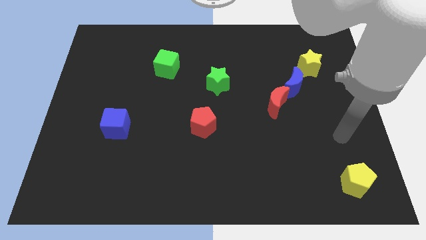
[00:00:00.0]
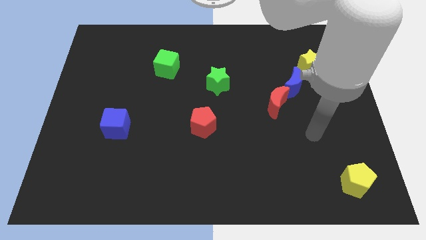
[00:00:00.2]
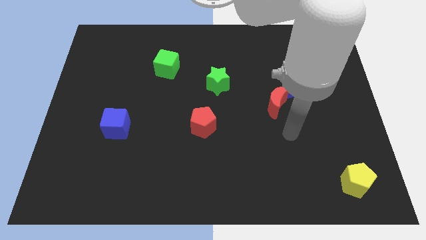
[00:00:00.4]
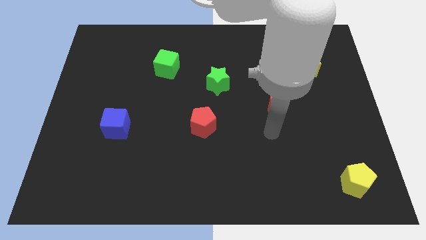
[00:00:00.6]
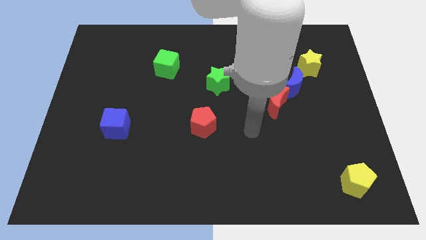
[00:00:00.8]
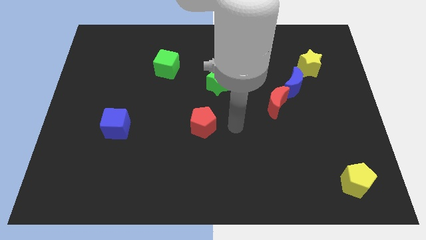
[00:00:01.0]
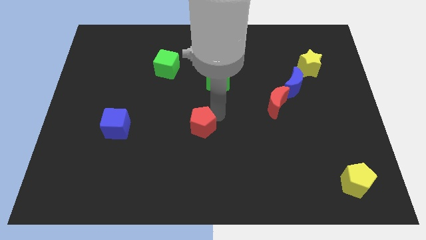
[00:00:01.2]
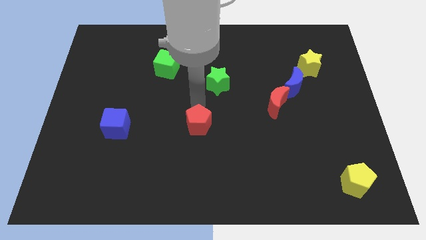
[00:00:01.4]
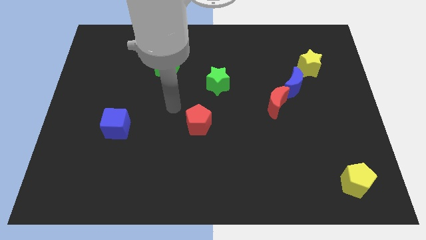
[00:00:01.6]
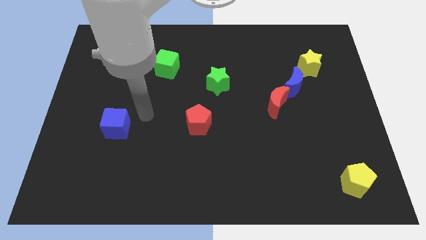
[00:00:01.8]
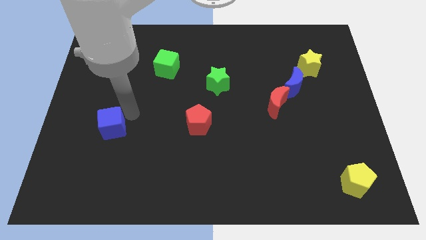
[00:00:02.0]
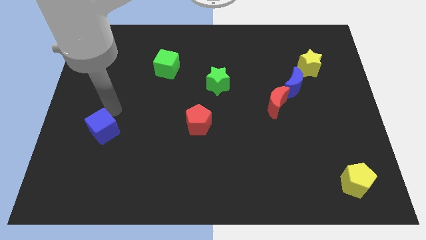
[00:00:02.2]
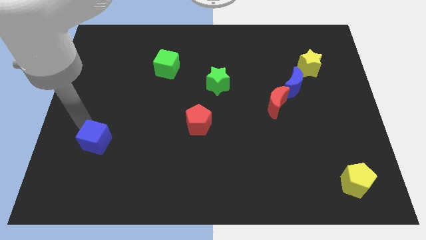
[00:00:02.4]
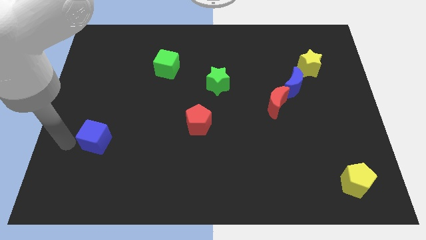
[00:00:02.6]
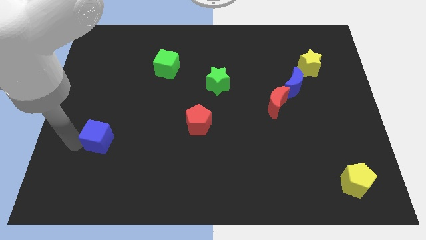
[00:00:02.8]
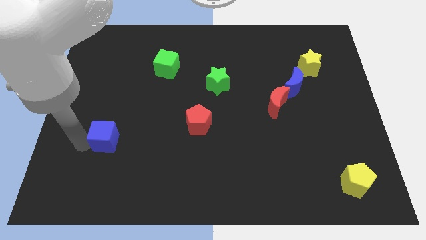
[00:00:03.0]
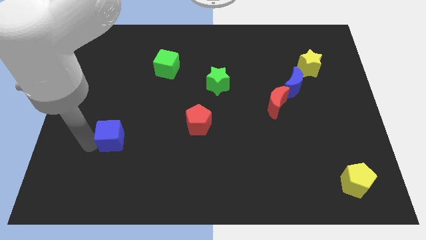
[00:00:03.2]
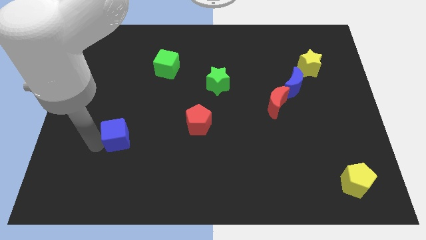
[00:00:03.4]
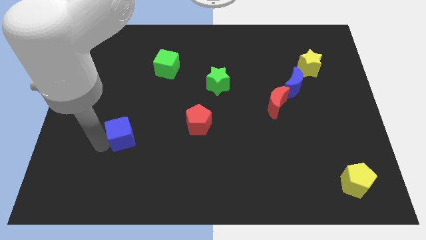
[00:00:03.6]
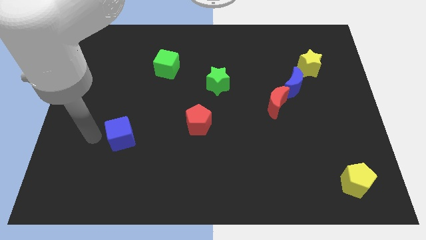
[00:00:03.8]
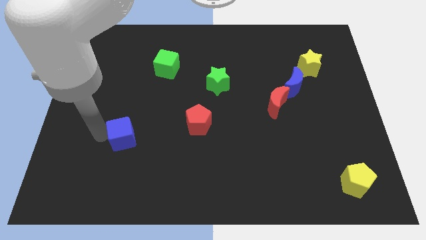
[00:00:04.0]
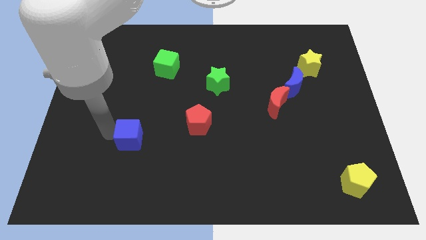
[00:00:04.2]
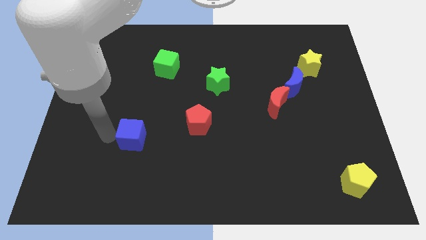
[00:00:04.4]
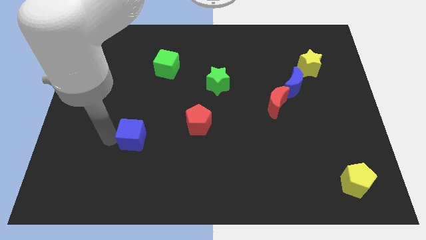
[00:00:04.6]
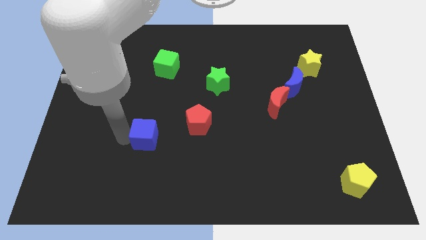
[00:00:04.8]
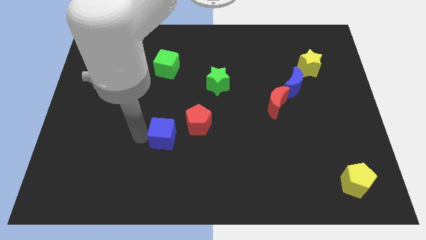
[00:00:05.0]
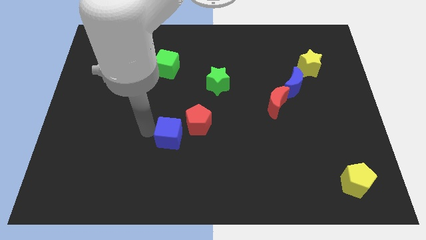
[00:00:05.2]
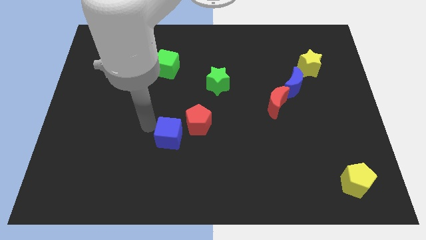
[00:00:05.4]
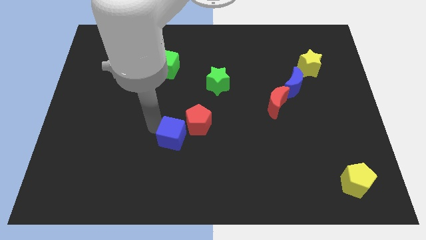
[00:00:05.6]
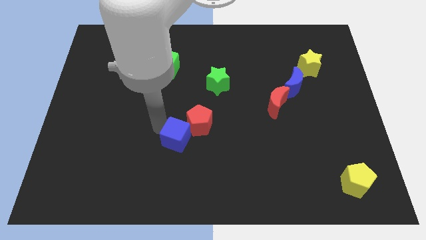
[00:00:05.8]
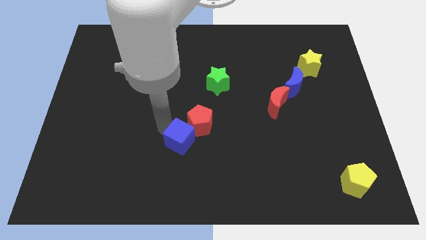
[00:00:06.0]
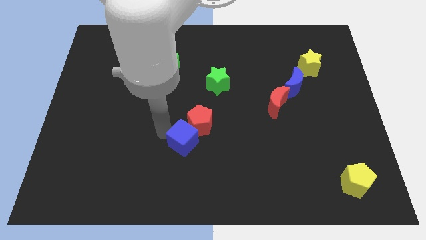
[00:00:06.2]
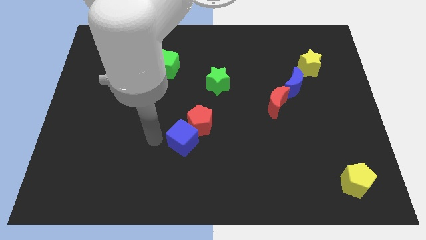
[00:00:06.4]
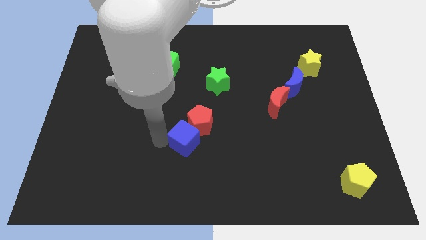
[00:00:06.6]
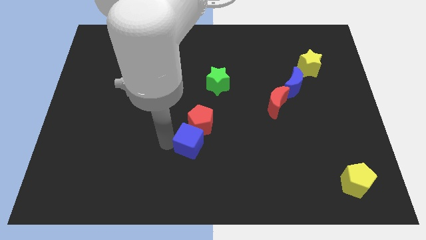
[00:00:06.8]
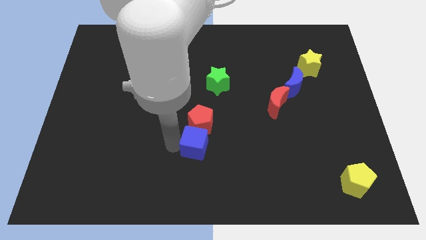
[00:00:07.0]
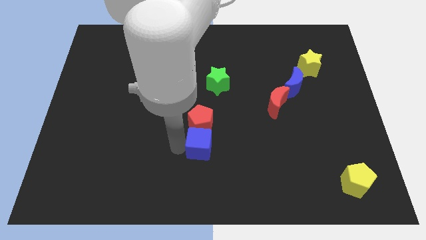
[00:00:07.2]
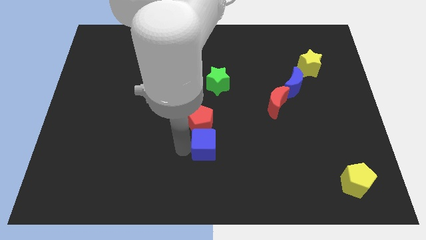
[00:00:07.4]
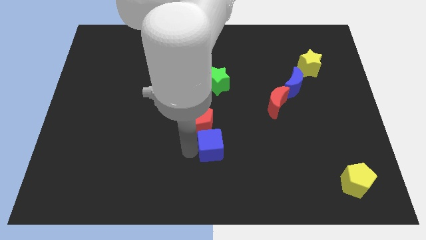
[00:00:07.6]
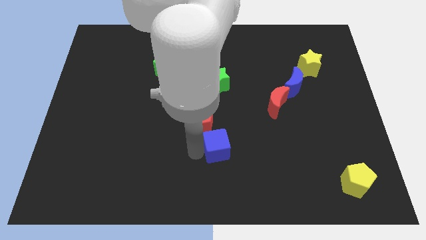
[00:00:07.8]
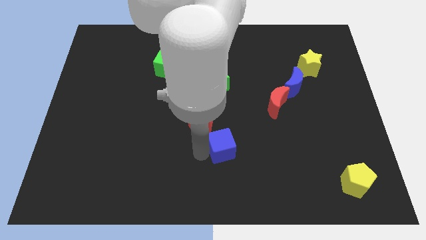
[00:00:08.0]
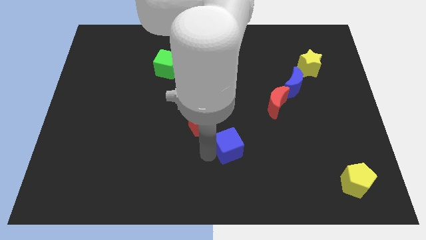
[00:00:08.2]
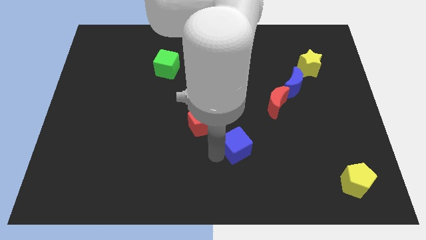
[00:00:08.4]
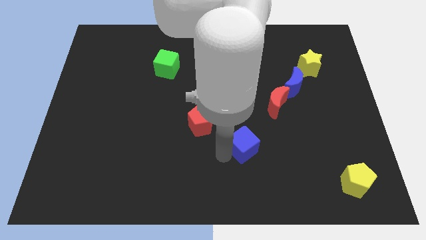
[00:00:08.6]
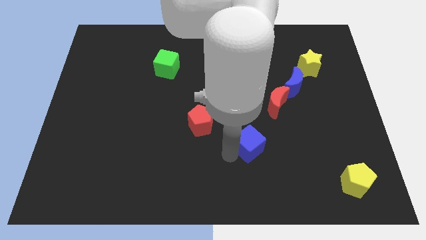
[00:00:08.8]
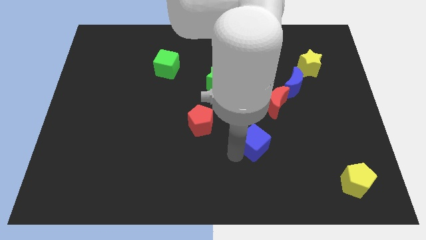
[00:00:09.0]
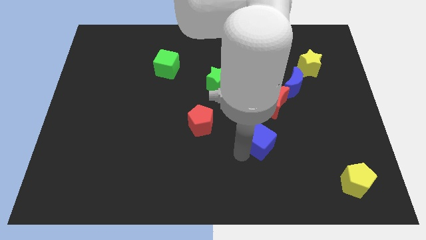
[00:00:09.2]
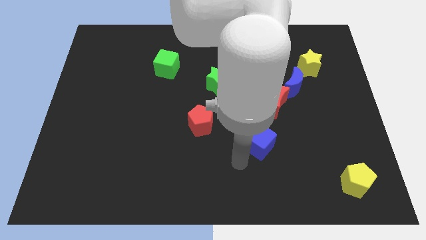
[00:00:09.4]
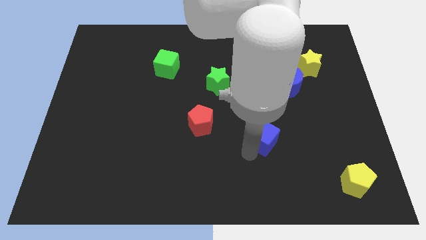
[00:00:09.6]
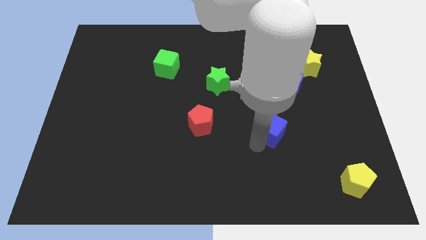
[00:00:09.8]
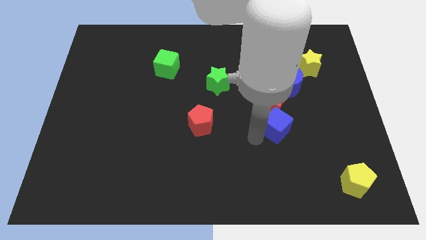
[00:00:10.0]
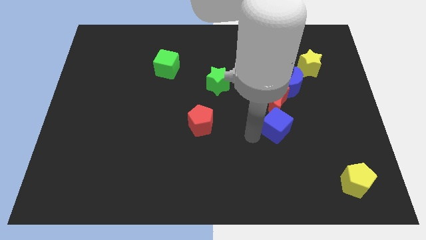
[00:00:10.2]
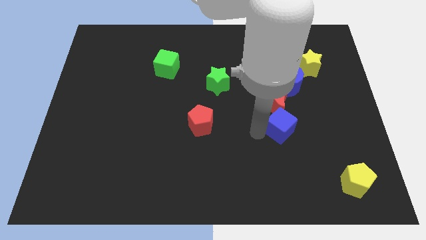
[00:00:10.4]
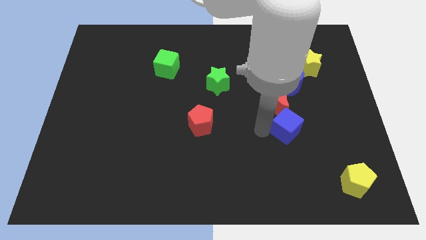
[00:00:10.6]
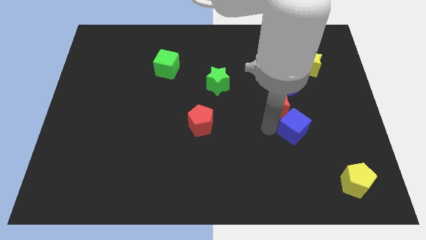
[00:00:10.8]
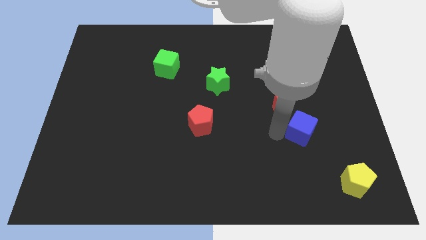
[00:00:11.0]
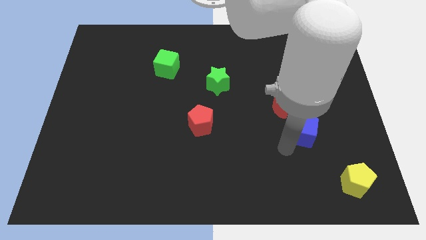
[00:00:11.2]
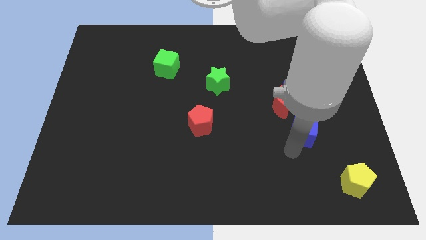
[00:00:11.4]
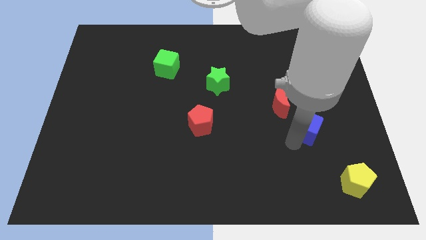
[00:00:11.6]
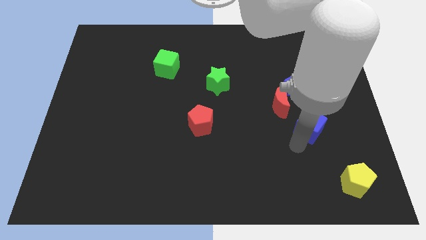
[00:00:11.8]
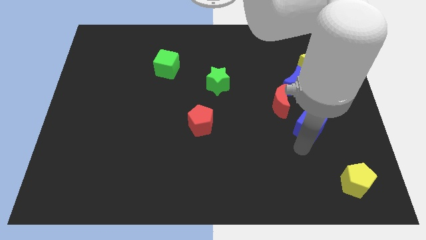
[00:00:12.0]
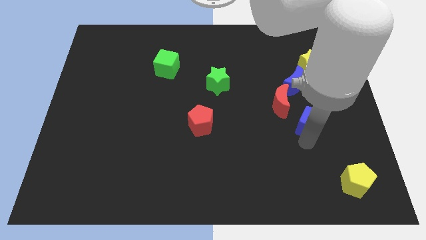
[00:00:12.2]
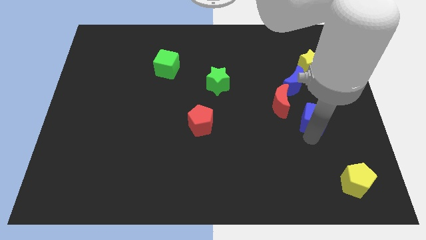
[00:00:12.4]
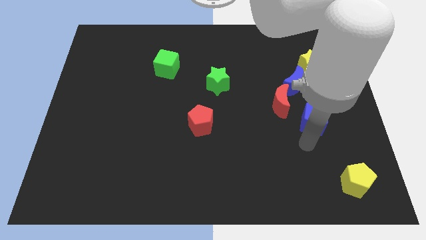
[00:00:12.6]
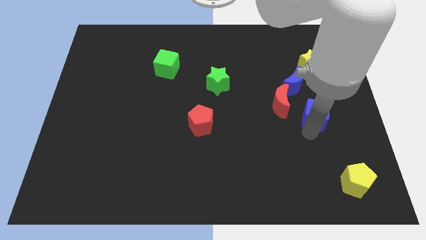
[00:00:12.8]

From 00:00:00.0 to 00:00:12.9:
put the blue cube to the bottom right side of the blue moon
